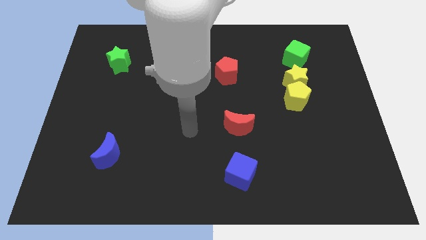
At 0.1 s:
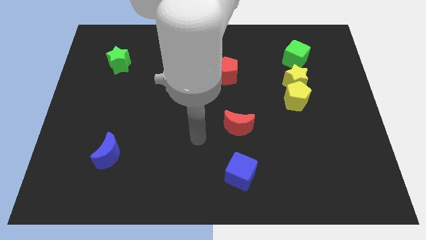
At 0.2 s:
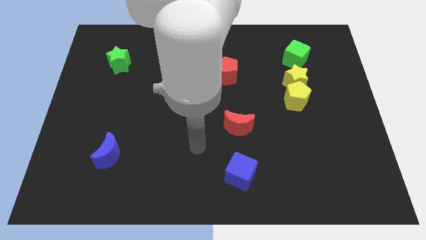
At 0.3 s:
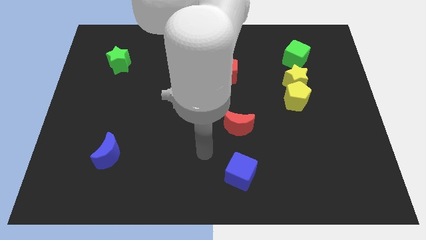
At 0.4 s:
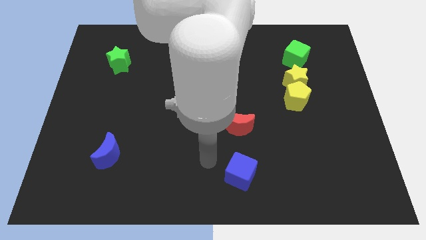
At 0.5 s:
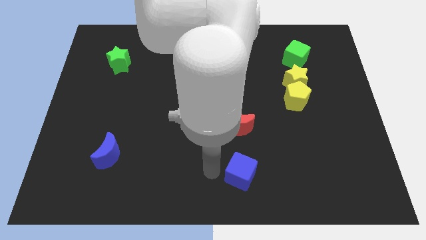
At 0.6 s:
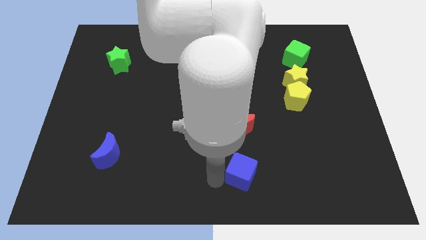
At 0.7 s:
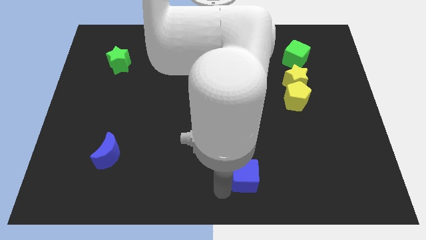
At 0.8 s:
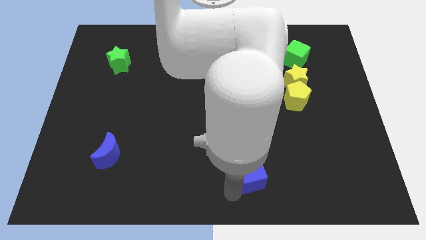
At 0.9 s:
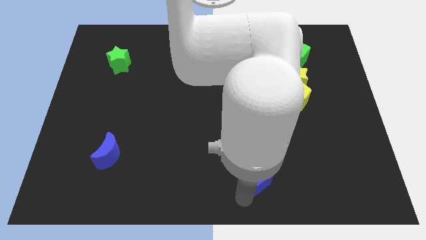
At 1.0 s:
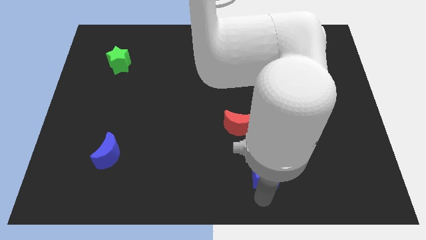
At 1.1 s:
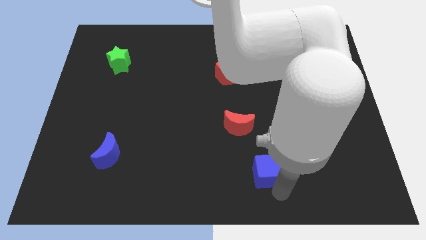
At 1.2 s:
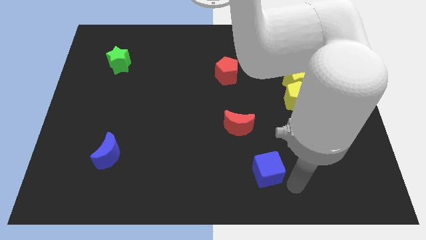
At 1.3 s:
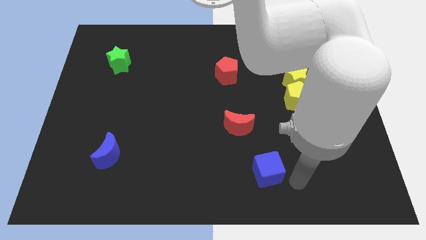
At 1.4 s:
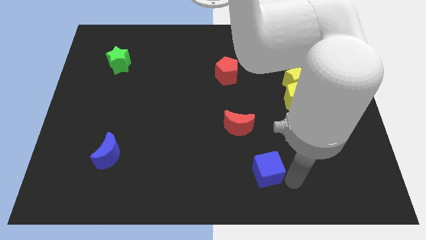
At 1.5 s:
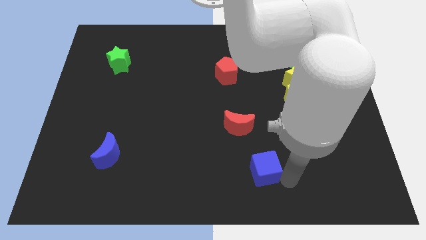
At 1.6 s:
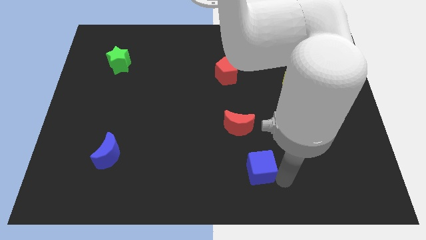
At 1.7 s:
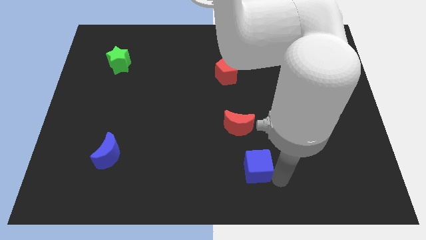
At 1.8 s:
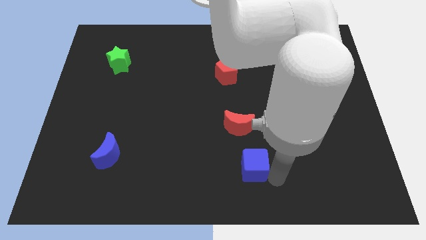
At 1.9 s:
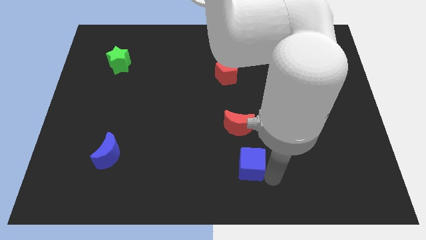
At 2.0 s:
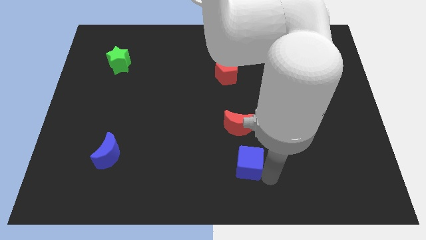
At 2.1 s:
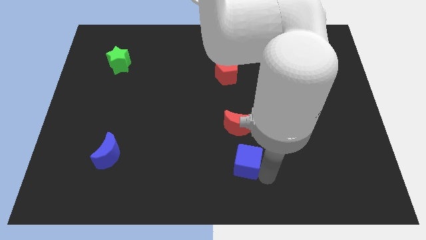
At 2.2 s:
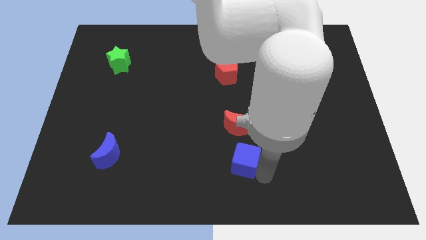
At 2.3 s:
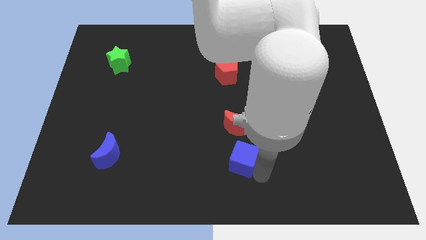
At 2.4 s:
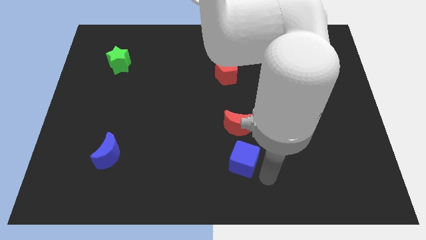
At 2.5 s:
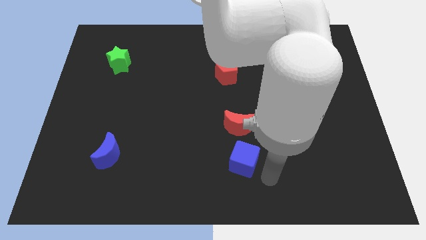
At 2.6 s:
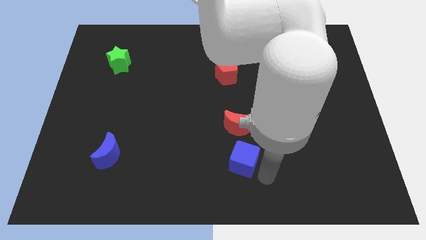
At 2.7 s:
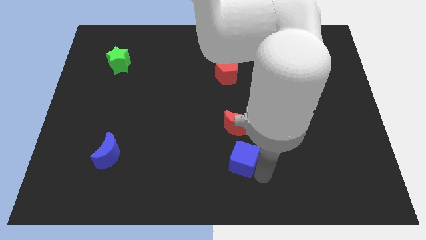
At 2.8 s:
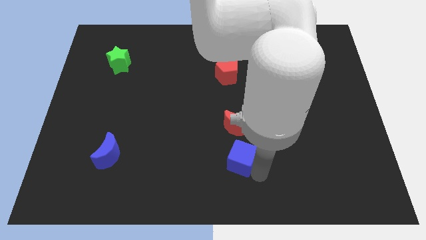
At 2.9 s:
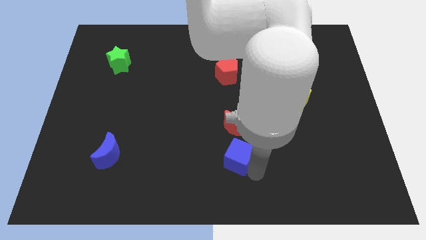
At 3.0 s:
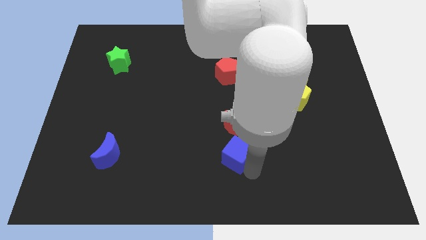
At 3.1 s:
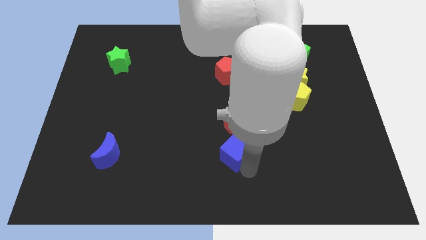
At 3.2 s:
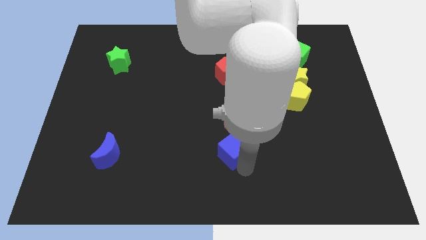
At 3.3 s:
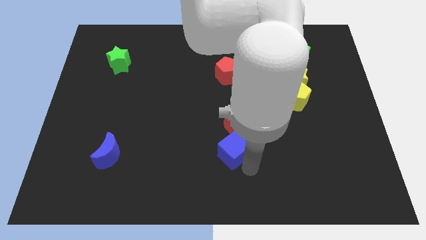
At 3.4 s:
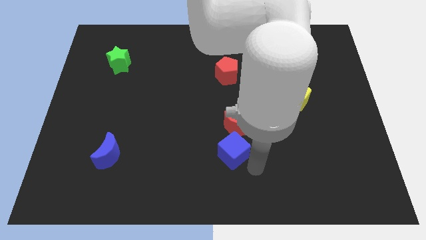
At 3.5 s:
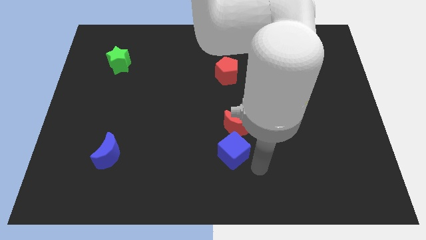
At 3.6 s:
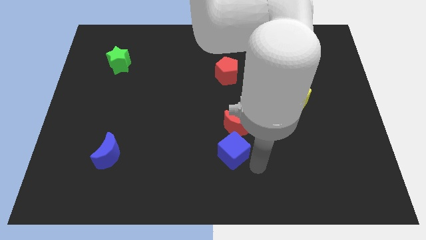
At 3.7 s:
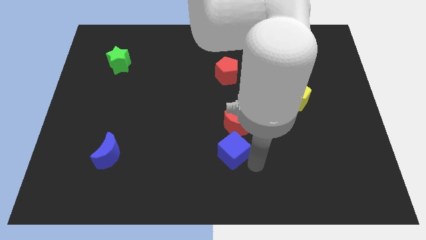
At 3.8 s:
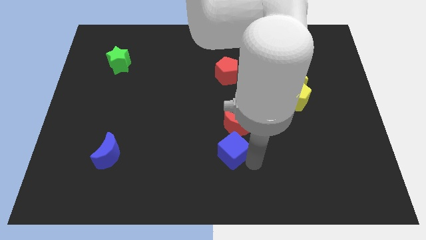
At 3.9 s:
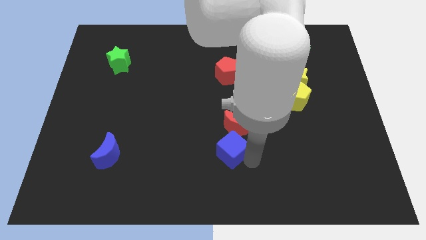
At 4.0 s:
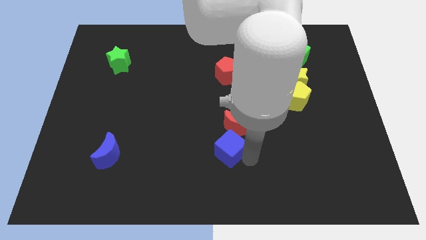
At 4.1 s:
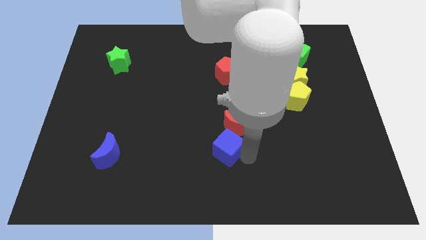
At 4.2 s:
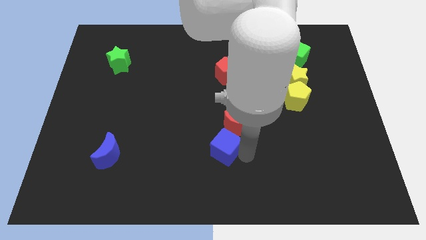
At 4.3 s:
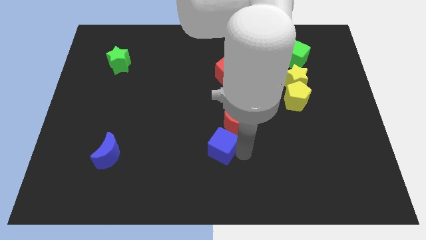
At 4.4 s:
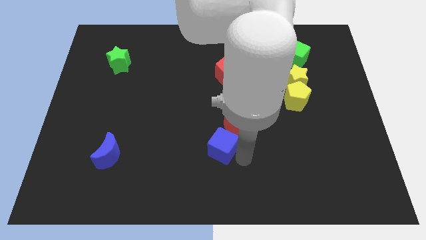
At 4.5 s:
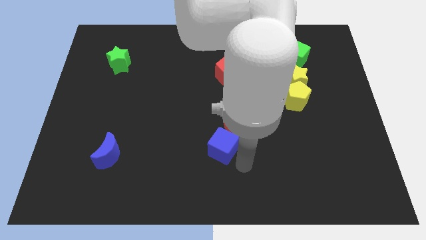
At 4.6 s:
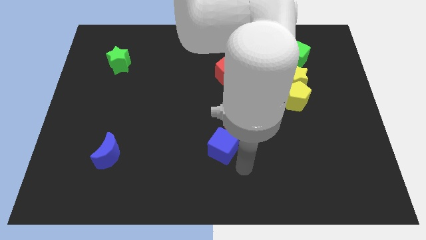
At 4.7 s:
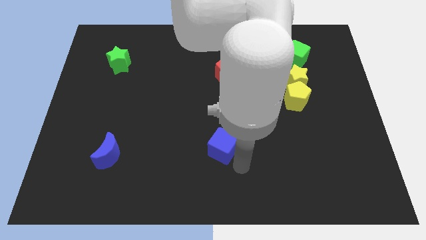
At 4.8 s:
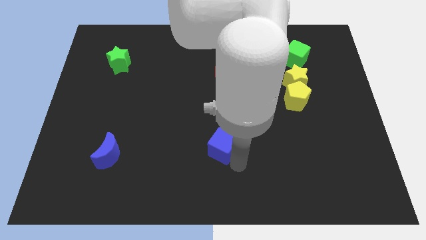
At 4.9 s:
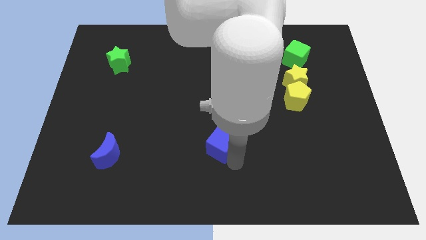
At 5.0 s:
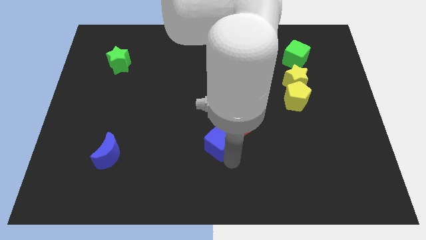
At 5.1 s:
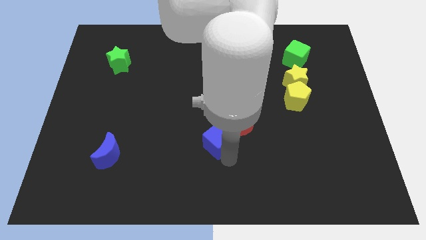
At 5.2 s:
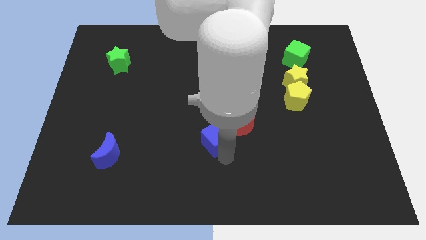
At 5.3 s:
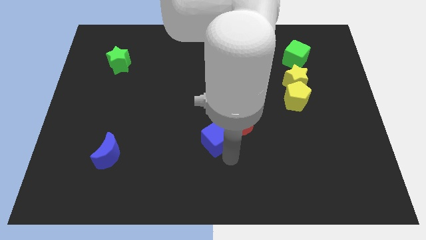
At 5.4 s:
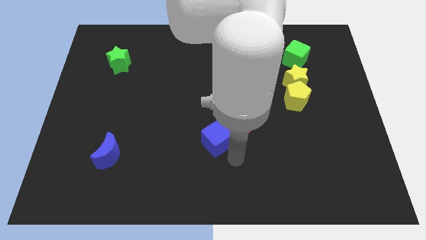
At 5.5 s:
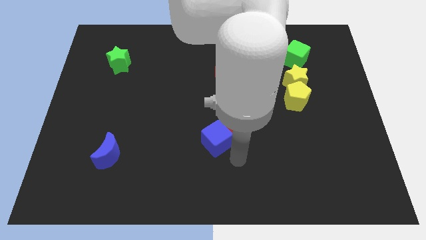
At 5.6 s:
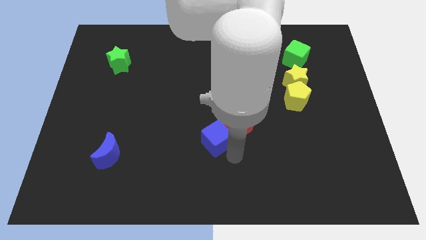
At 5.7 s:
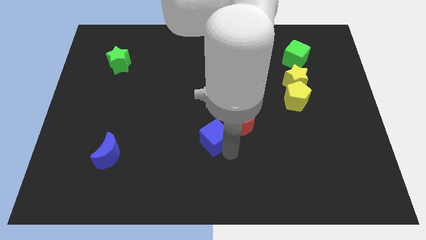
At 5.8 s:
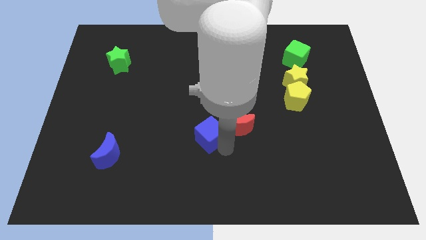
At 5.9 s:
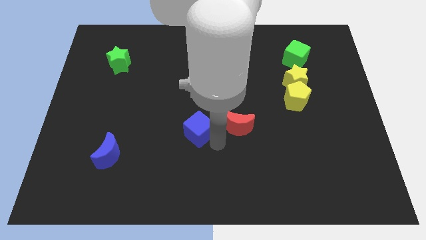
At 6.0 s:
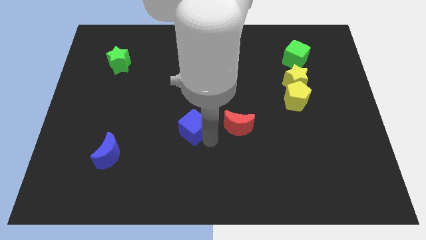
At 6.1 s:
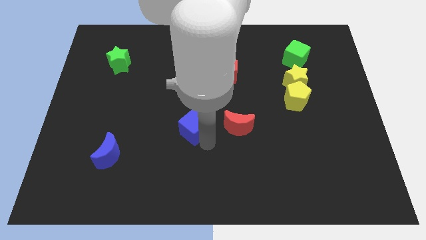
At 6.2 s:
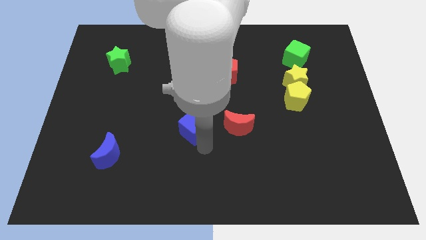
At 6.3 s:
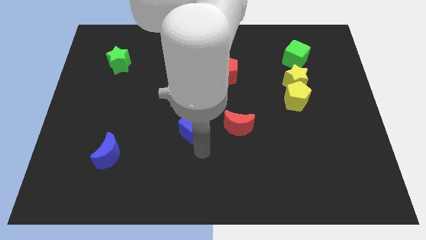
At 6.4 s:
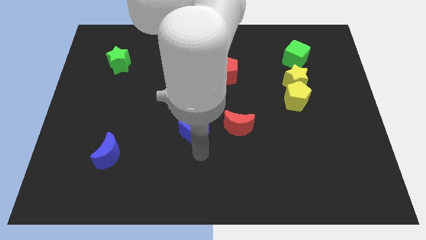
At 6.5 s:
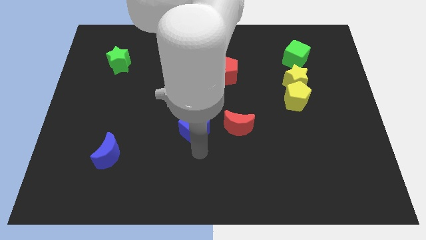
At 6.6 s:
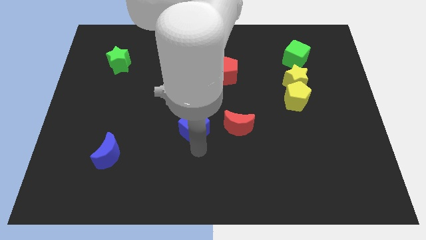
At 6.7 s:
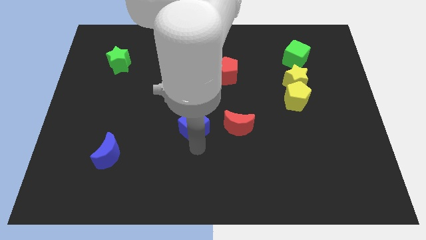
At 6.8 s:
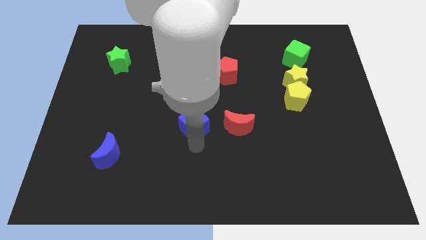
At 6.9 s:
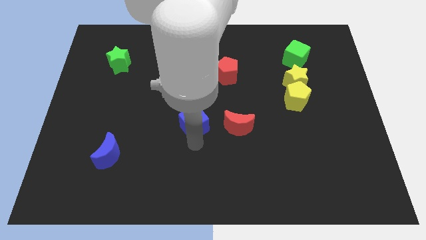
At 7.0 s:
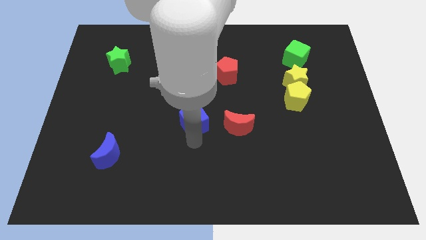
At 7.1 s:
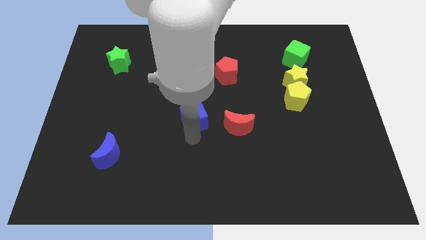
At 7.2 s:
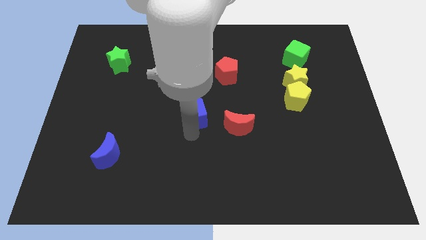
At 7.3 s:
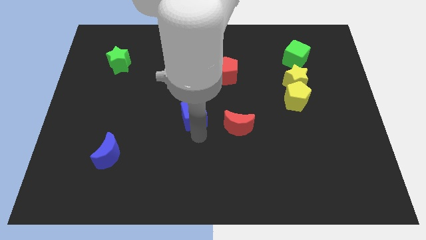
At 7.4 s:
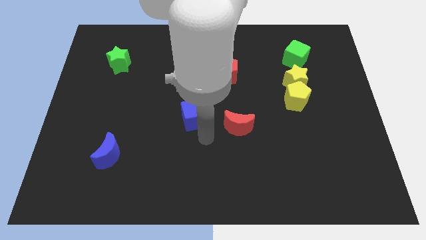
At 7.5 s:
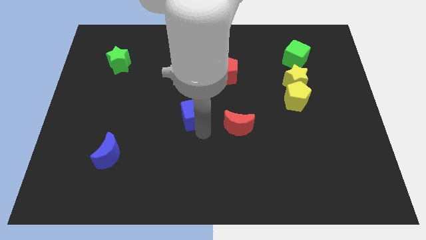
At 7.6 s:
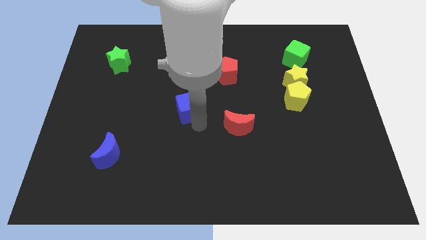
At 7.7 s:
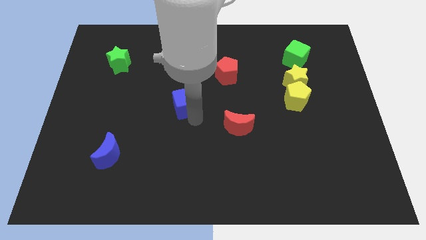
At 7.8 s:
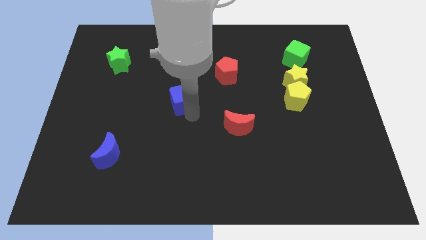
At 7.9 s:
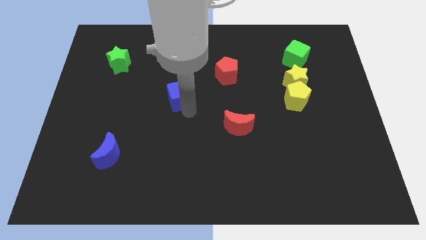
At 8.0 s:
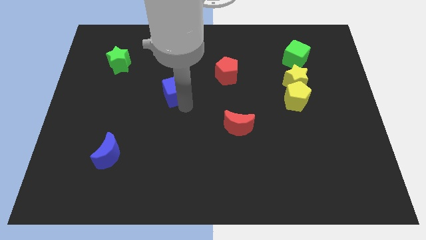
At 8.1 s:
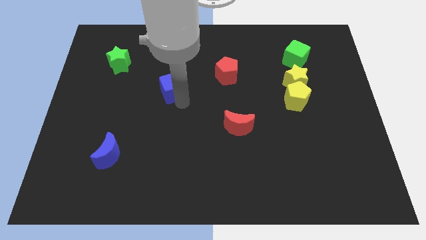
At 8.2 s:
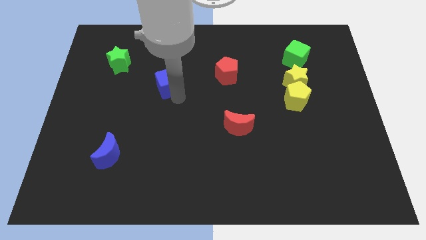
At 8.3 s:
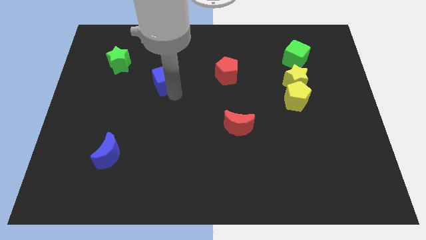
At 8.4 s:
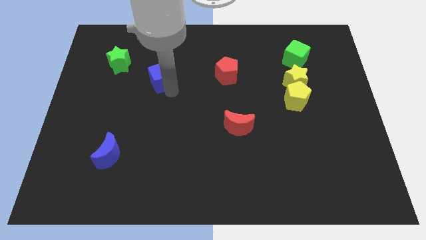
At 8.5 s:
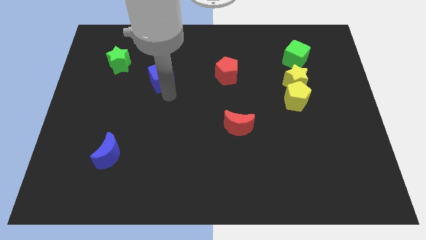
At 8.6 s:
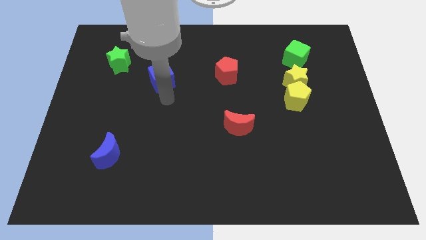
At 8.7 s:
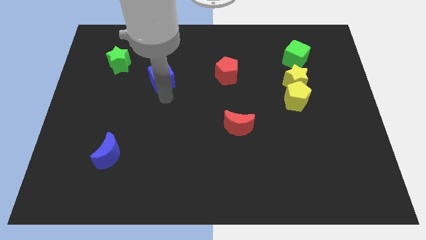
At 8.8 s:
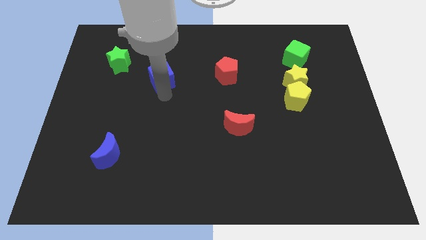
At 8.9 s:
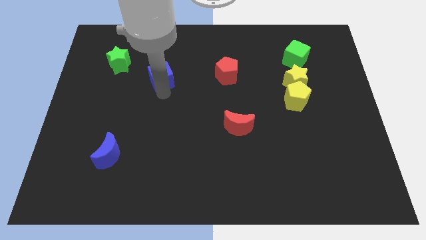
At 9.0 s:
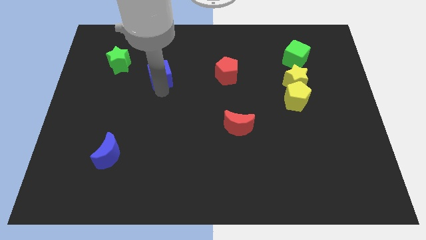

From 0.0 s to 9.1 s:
slide the blue cube to the right of the green star
